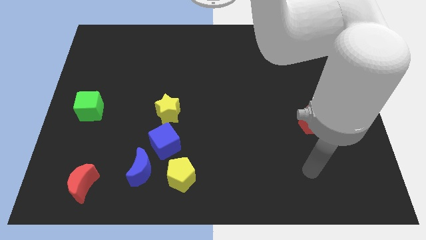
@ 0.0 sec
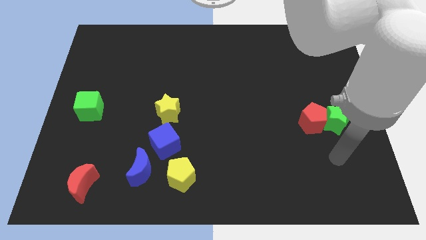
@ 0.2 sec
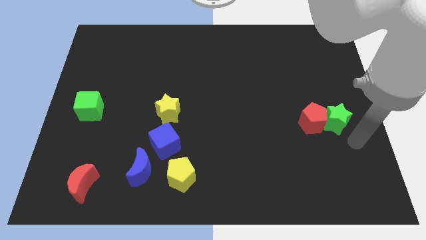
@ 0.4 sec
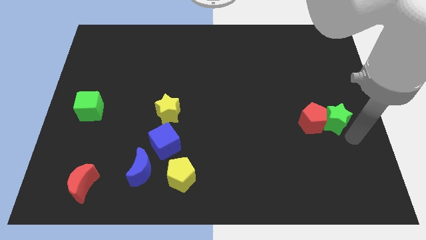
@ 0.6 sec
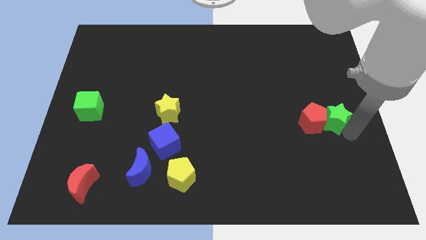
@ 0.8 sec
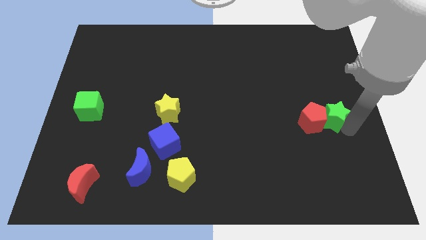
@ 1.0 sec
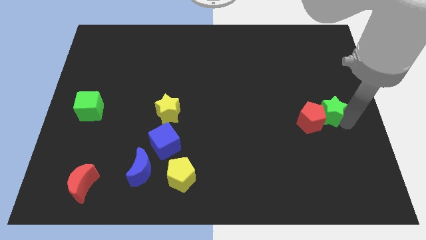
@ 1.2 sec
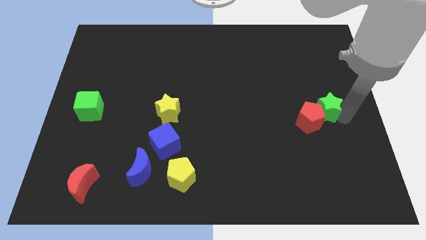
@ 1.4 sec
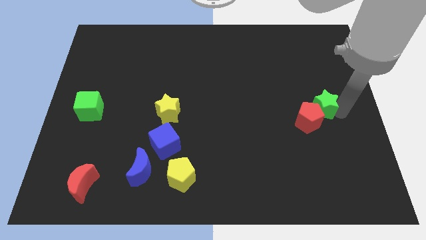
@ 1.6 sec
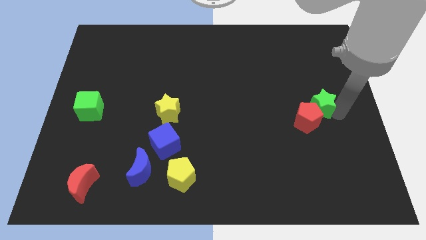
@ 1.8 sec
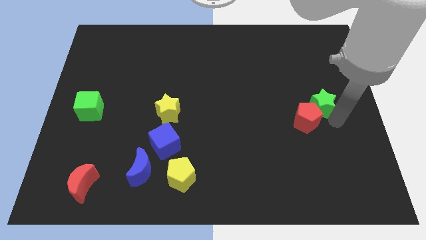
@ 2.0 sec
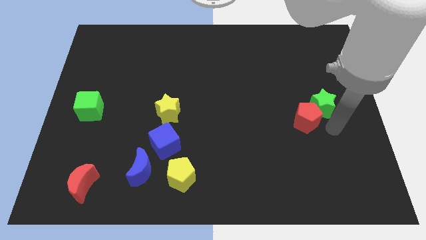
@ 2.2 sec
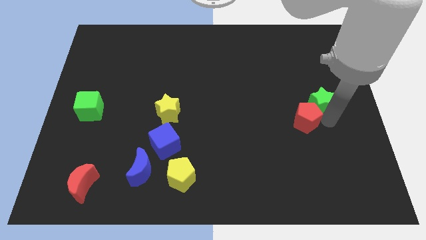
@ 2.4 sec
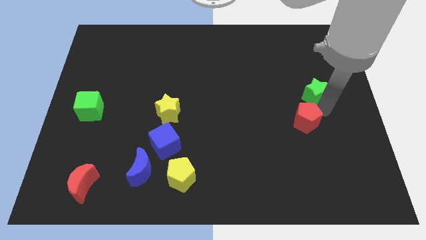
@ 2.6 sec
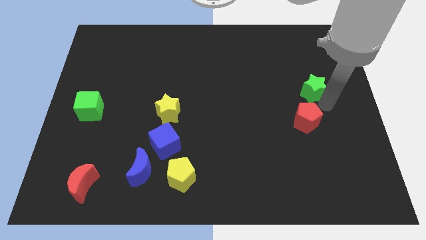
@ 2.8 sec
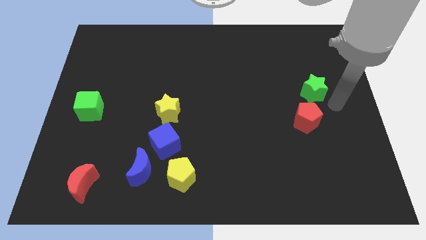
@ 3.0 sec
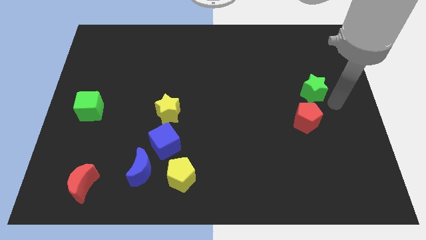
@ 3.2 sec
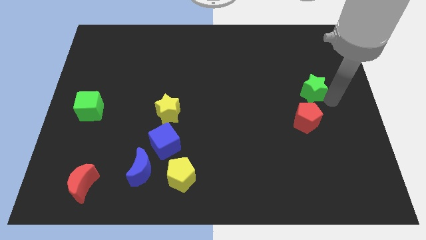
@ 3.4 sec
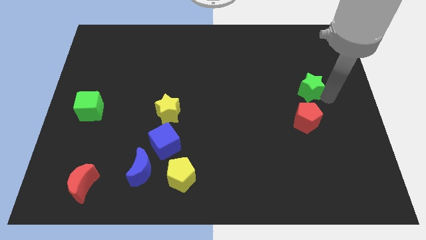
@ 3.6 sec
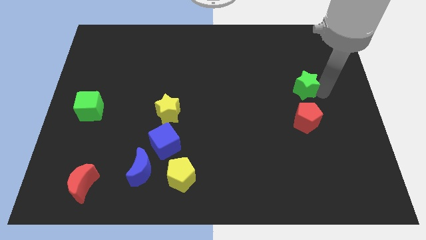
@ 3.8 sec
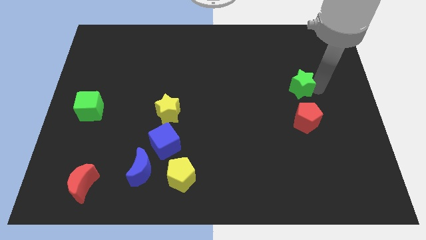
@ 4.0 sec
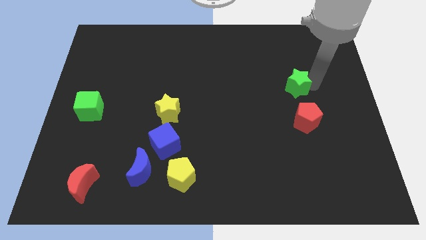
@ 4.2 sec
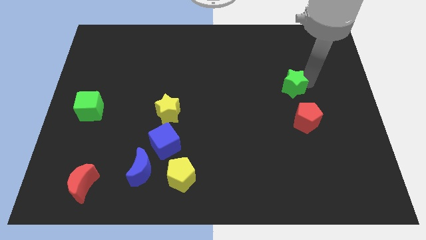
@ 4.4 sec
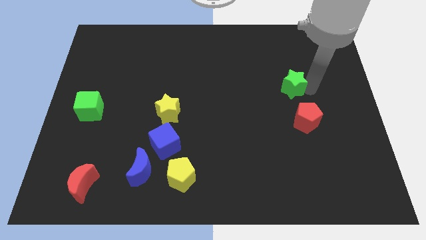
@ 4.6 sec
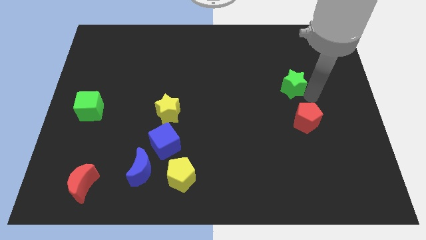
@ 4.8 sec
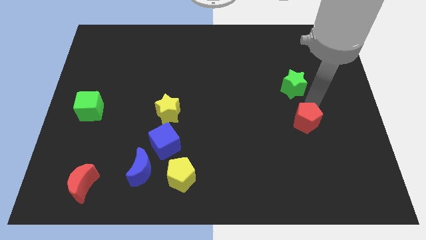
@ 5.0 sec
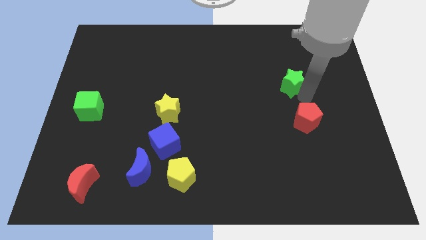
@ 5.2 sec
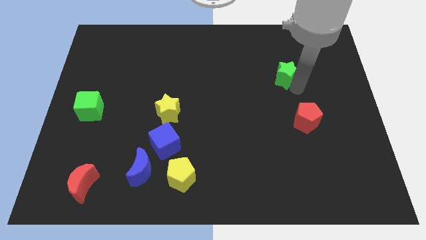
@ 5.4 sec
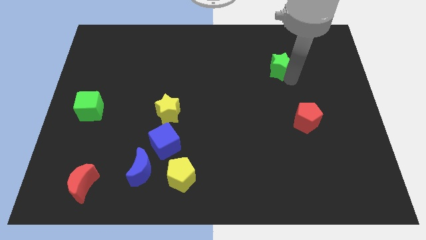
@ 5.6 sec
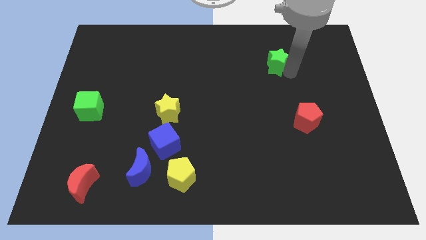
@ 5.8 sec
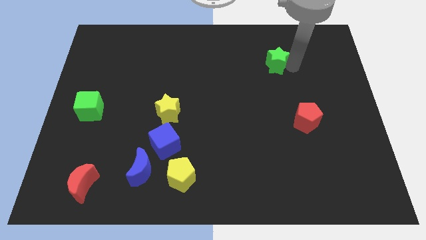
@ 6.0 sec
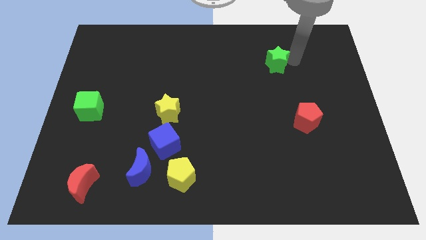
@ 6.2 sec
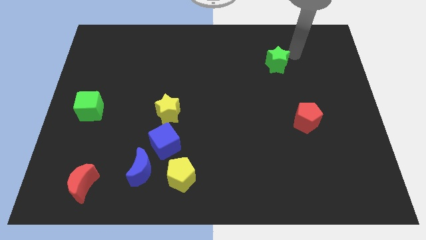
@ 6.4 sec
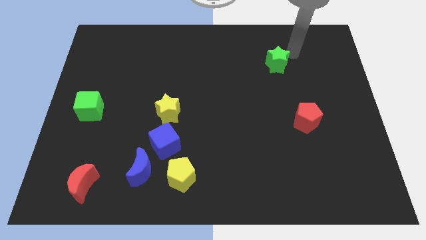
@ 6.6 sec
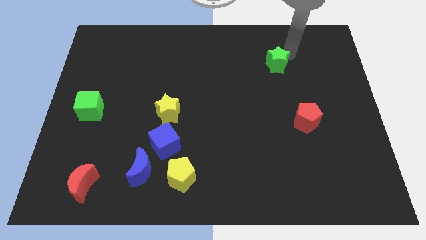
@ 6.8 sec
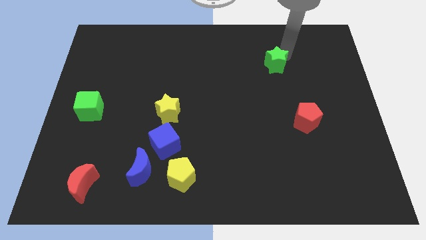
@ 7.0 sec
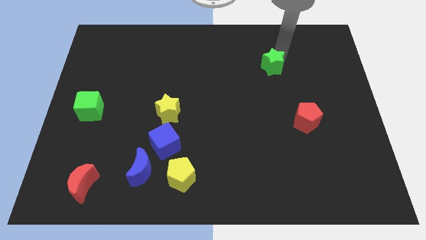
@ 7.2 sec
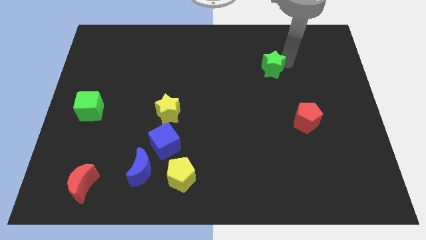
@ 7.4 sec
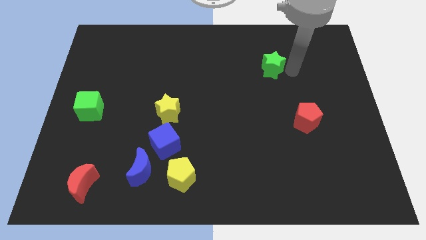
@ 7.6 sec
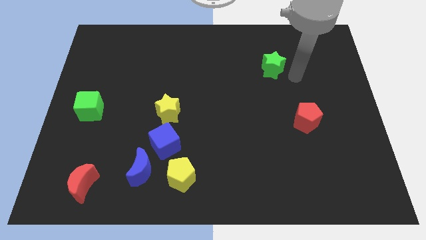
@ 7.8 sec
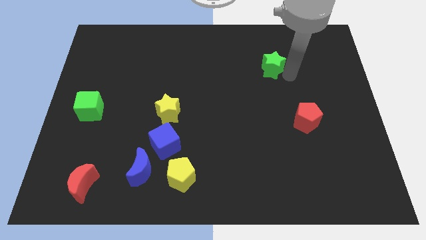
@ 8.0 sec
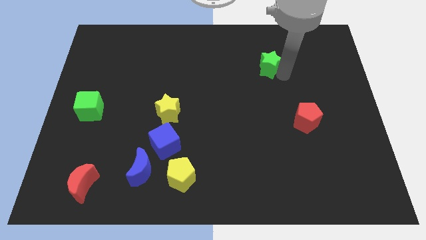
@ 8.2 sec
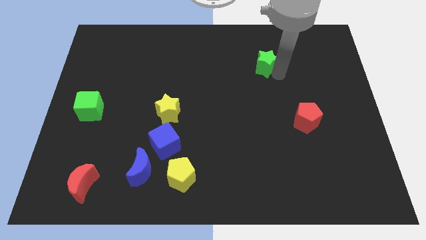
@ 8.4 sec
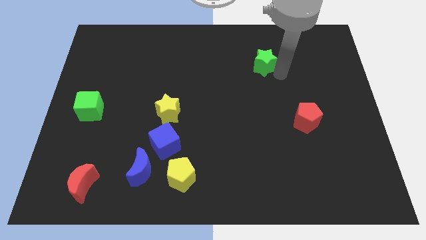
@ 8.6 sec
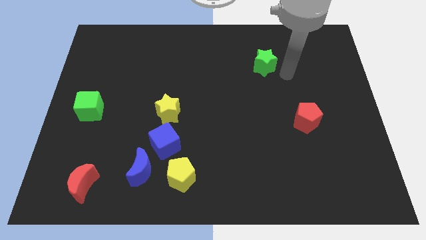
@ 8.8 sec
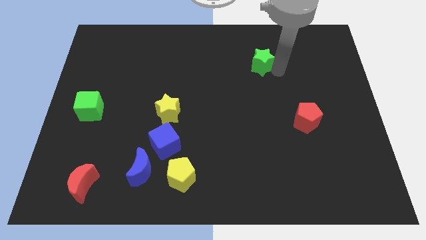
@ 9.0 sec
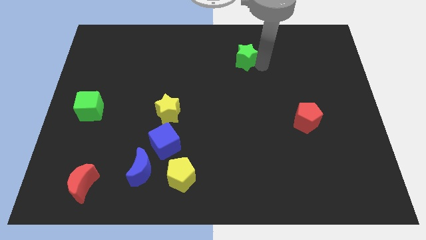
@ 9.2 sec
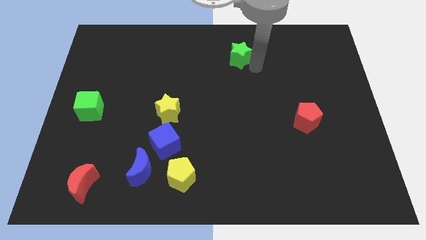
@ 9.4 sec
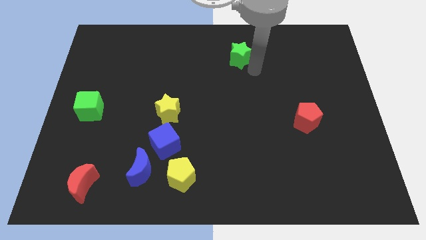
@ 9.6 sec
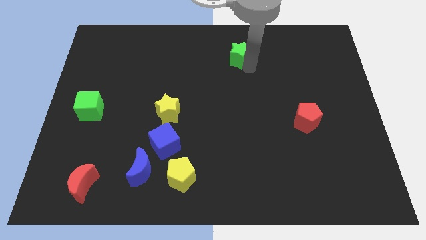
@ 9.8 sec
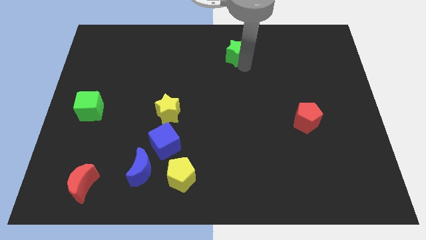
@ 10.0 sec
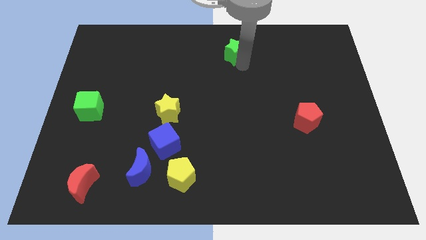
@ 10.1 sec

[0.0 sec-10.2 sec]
move the green star to the towards your base
